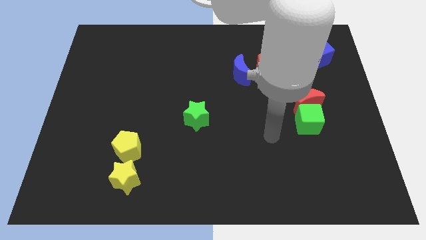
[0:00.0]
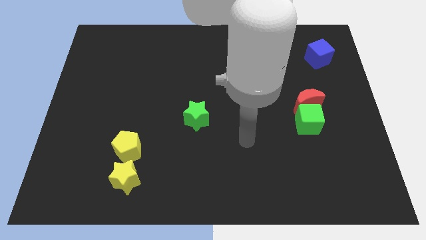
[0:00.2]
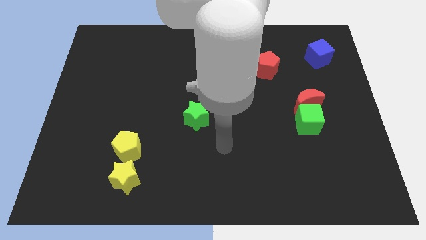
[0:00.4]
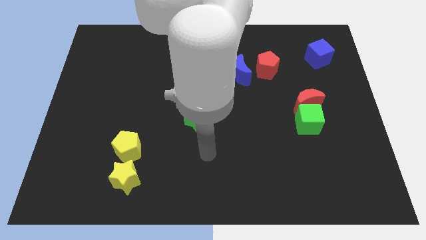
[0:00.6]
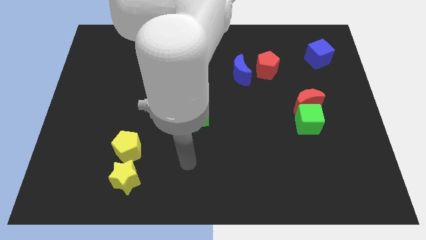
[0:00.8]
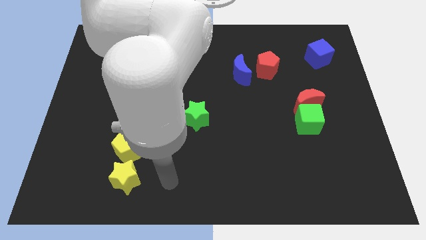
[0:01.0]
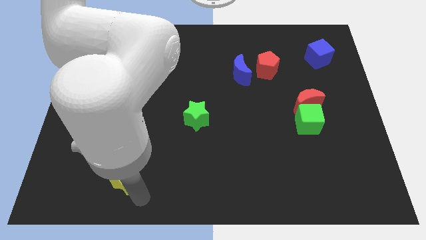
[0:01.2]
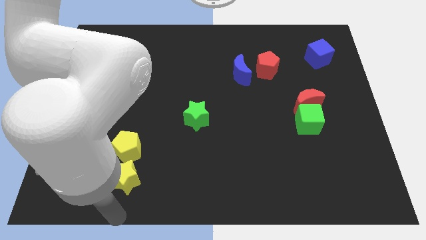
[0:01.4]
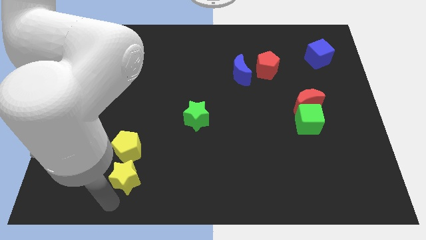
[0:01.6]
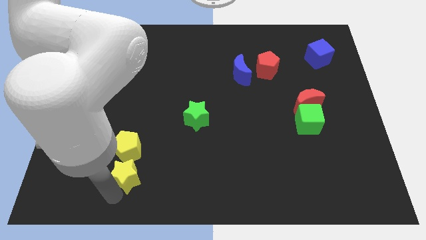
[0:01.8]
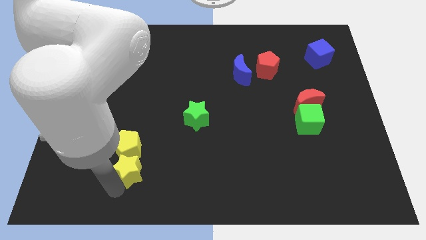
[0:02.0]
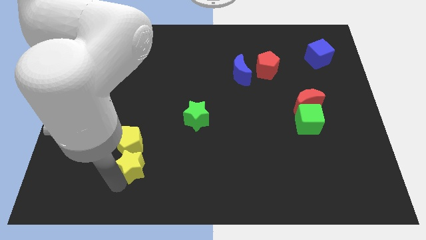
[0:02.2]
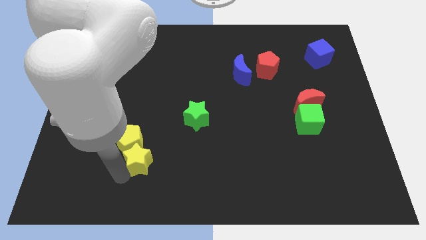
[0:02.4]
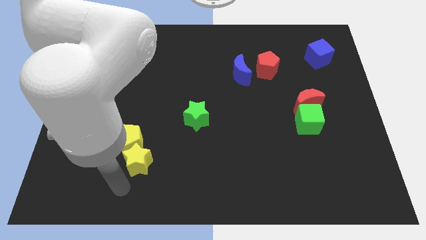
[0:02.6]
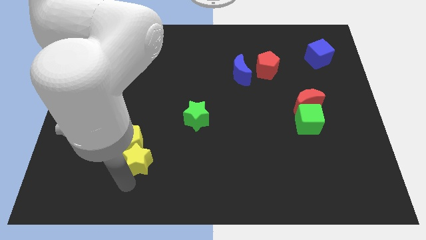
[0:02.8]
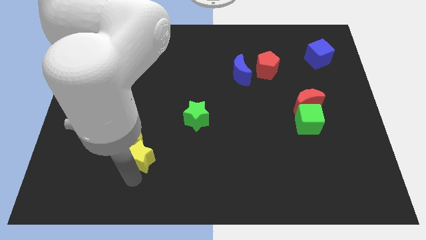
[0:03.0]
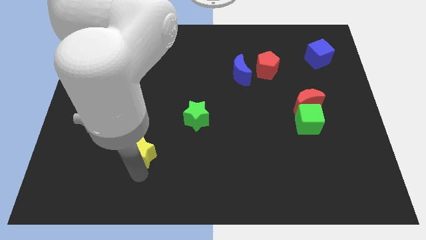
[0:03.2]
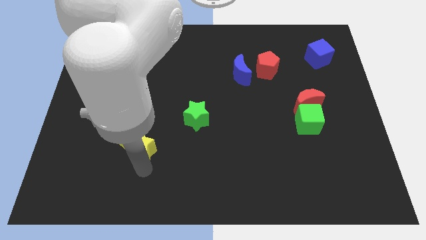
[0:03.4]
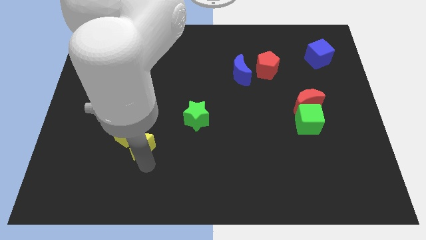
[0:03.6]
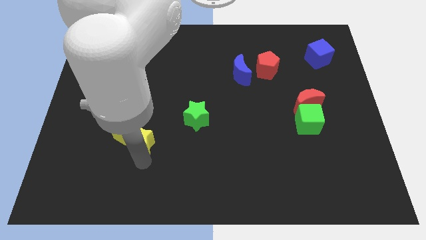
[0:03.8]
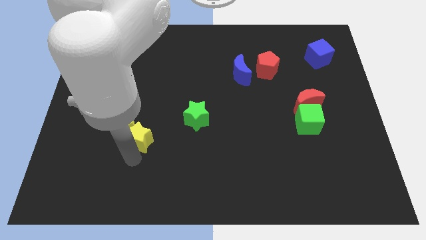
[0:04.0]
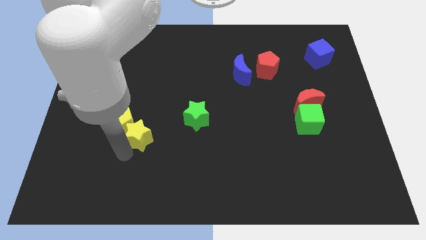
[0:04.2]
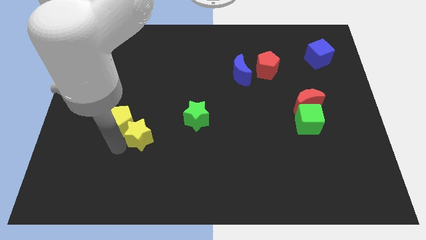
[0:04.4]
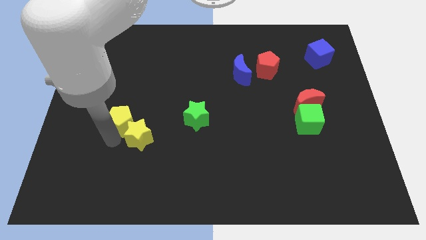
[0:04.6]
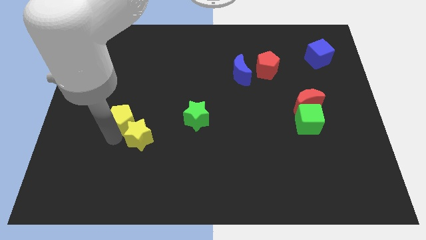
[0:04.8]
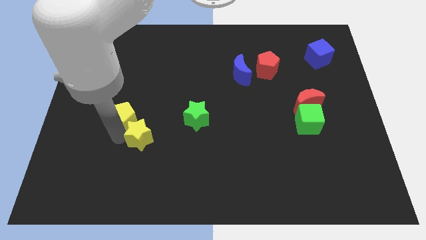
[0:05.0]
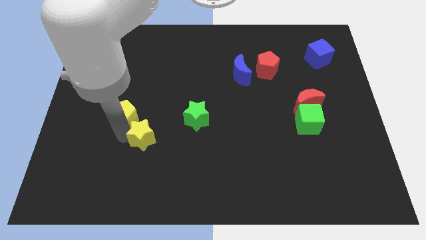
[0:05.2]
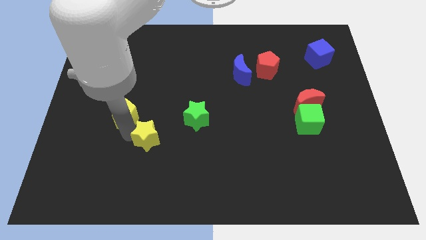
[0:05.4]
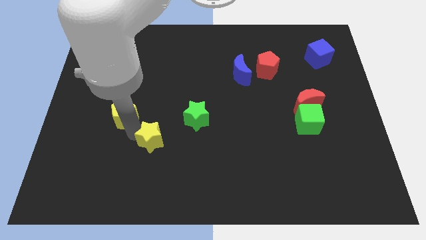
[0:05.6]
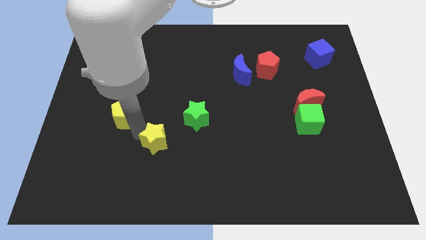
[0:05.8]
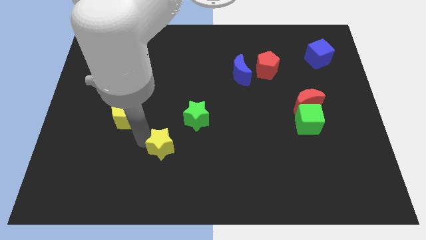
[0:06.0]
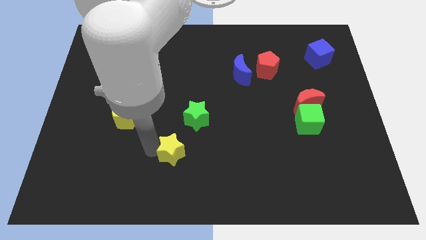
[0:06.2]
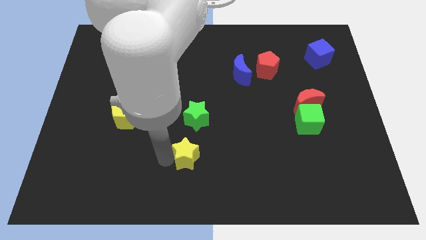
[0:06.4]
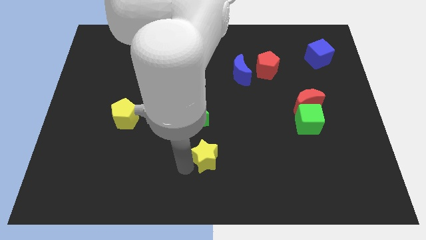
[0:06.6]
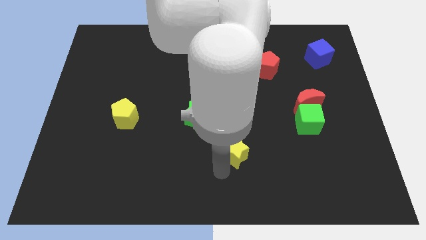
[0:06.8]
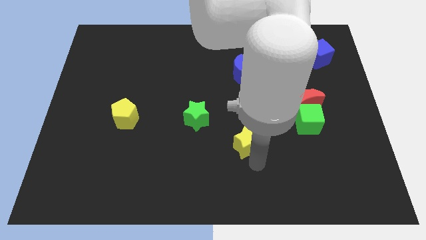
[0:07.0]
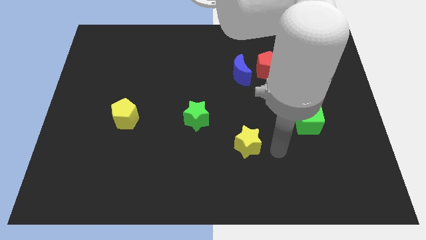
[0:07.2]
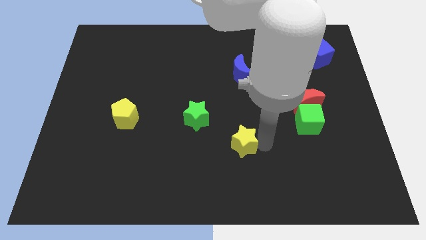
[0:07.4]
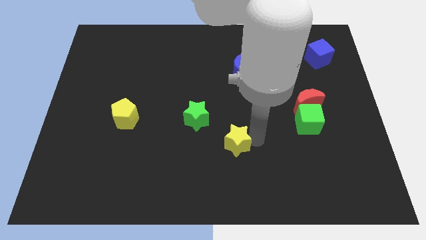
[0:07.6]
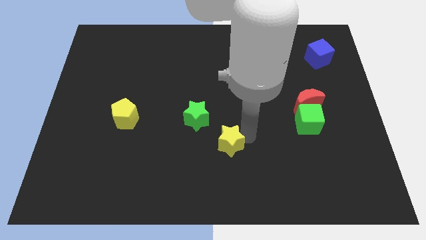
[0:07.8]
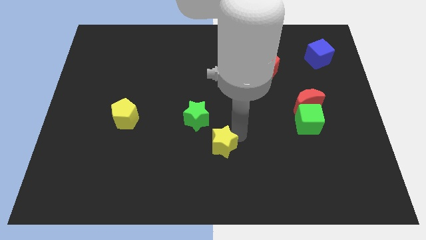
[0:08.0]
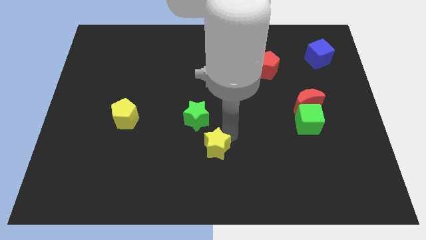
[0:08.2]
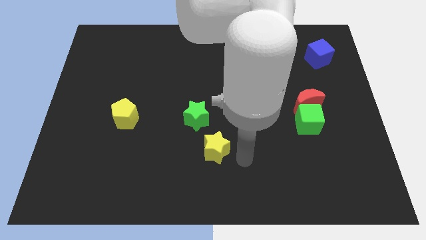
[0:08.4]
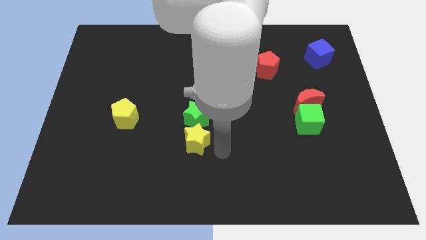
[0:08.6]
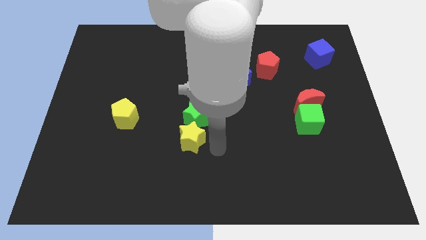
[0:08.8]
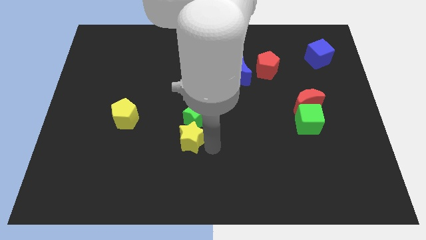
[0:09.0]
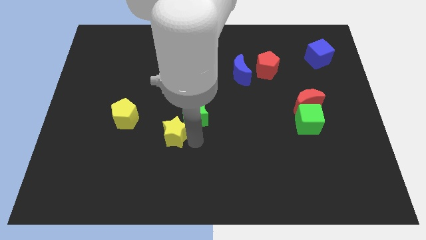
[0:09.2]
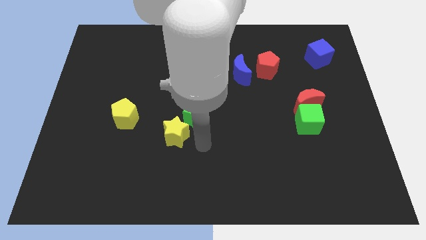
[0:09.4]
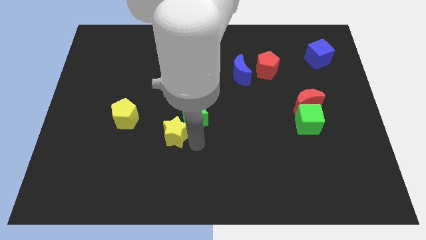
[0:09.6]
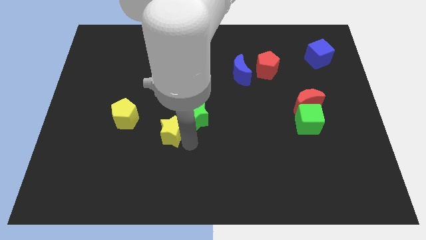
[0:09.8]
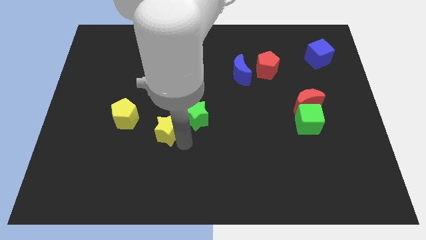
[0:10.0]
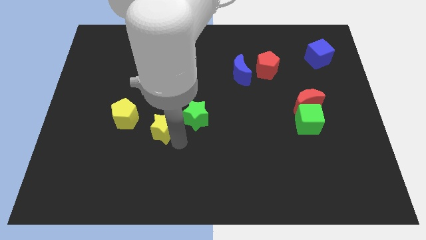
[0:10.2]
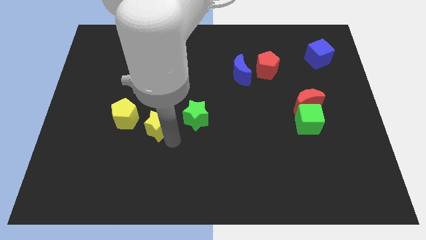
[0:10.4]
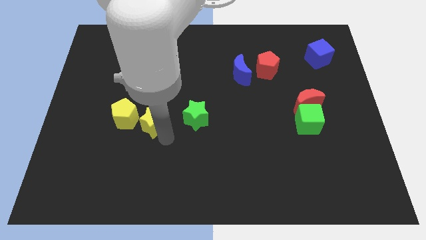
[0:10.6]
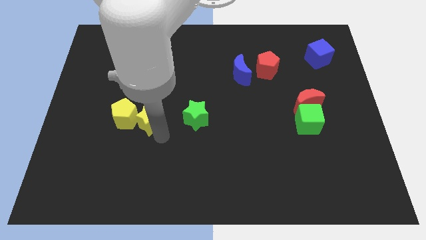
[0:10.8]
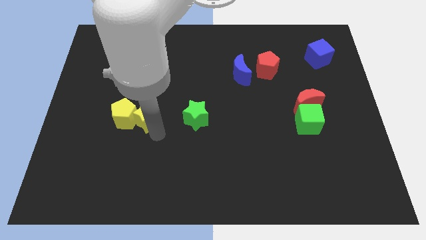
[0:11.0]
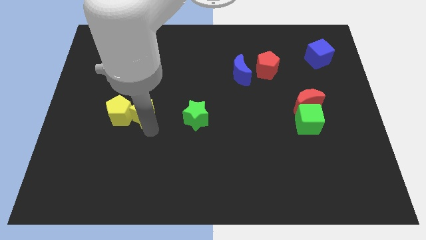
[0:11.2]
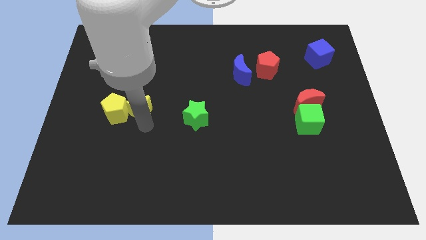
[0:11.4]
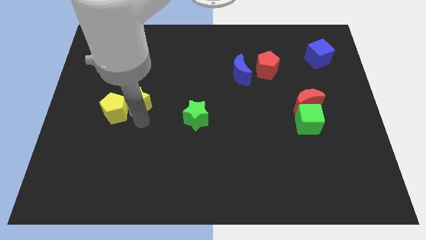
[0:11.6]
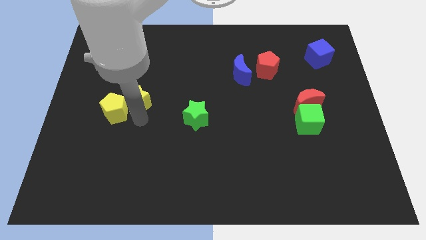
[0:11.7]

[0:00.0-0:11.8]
move the yellow star up

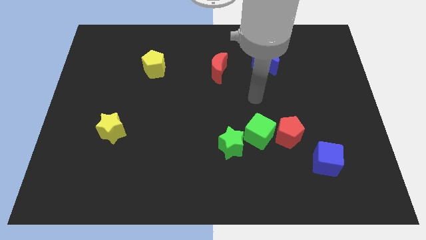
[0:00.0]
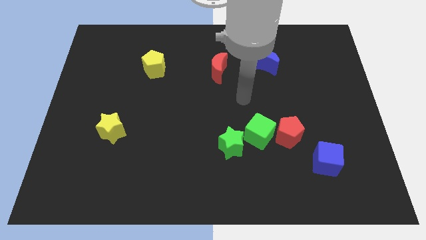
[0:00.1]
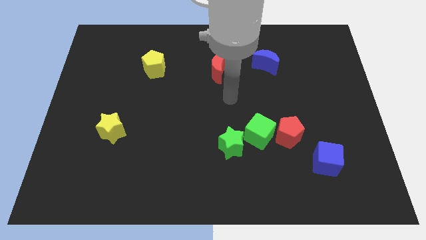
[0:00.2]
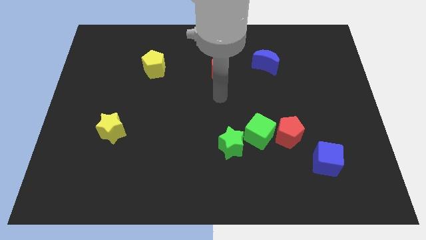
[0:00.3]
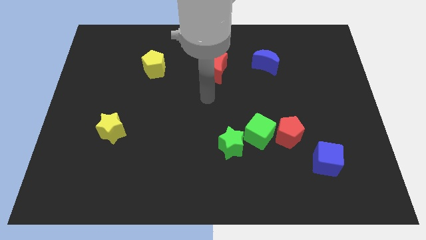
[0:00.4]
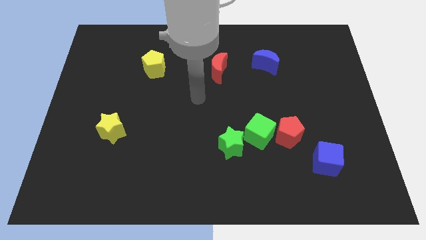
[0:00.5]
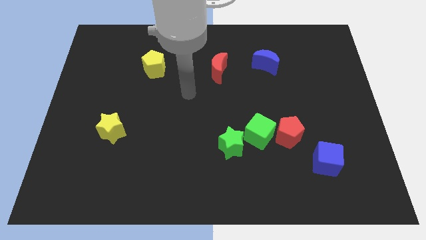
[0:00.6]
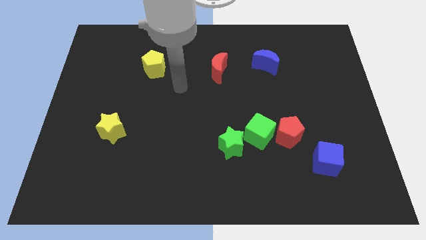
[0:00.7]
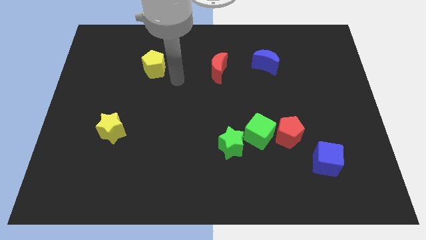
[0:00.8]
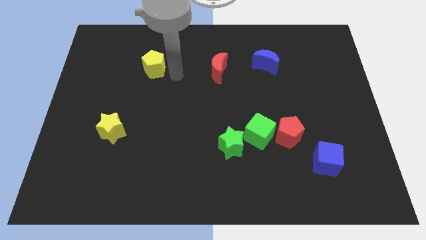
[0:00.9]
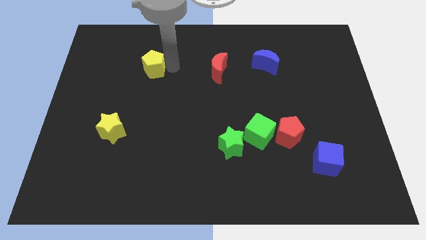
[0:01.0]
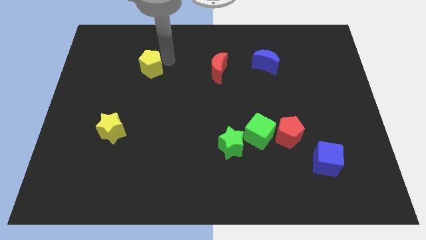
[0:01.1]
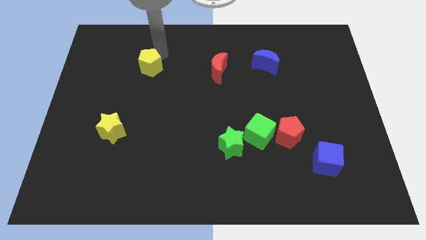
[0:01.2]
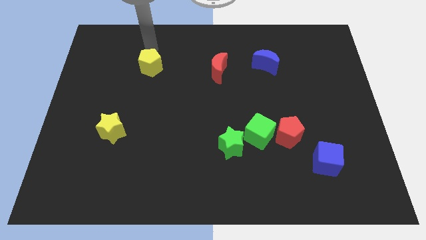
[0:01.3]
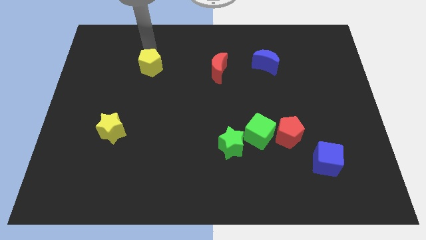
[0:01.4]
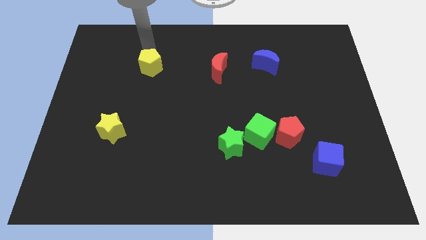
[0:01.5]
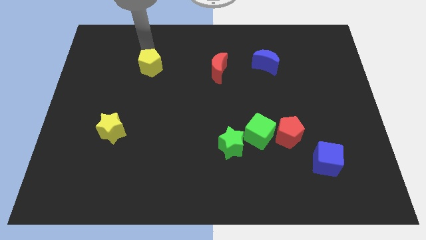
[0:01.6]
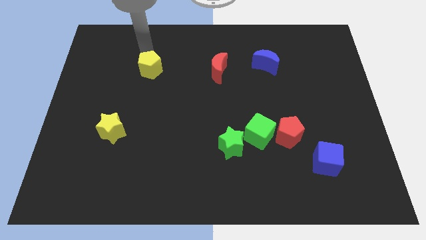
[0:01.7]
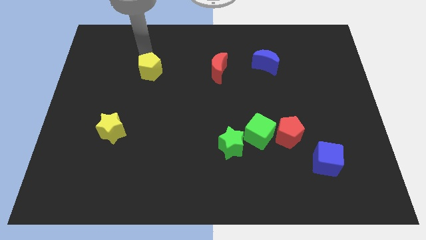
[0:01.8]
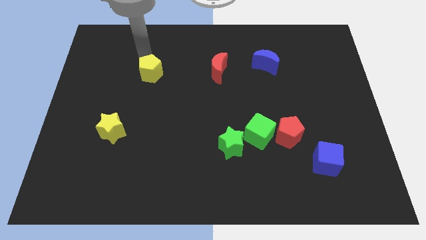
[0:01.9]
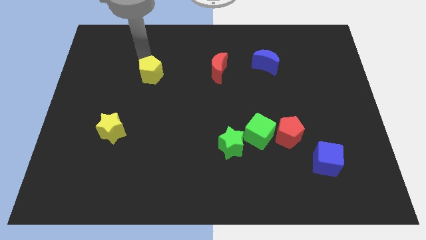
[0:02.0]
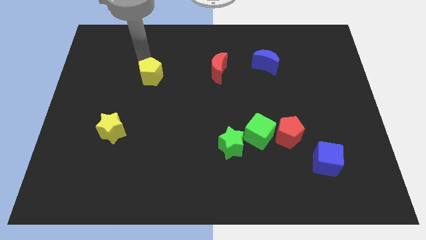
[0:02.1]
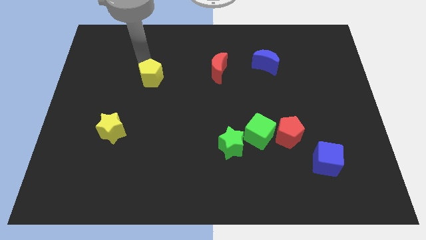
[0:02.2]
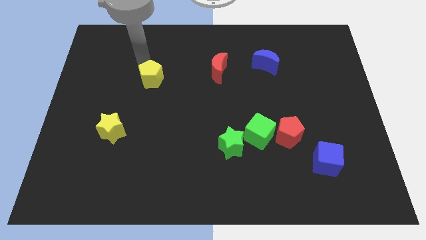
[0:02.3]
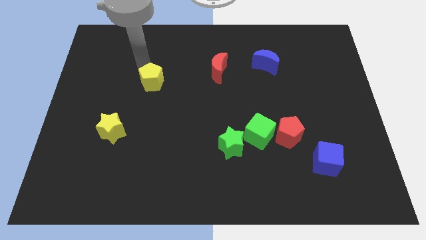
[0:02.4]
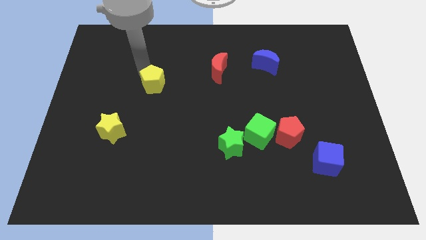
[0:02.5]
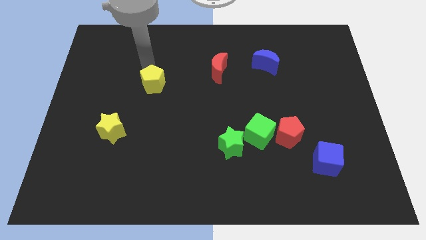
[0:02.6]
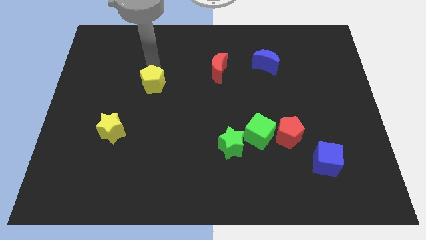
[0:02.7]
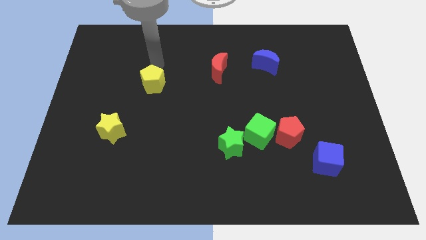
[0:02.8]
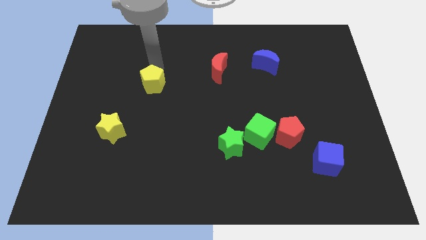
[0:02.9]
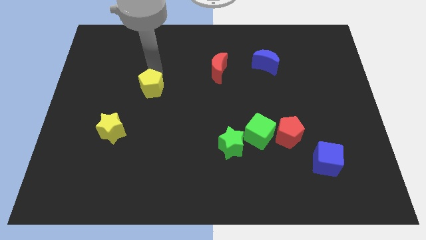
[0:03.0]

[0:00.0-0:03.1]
push the yellow pentagon downwards a little
